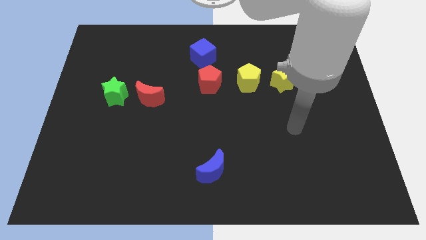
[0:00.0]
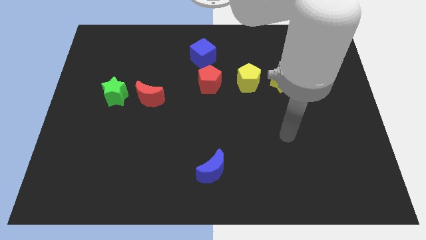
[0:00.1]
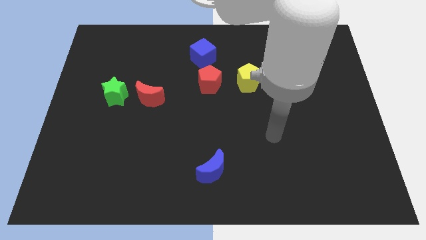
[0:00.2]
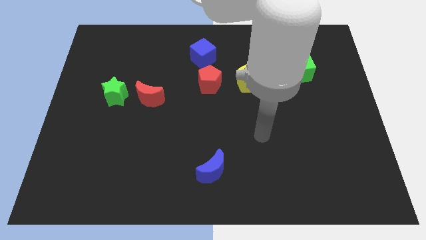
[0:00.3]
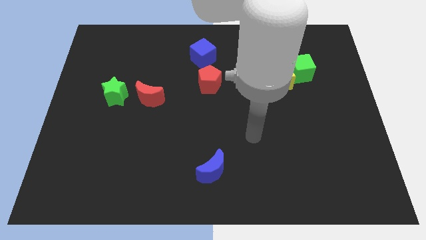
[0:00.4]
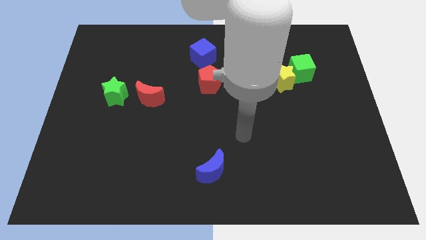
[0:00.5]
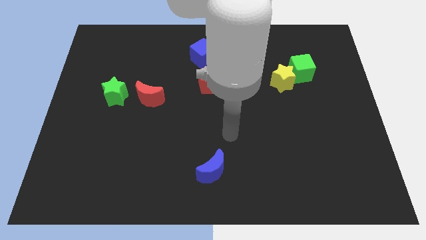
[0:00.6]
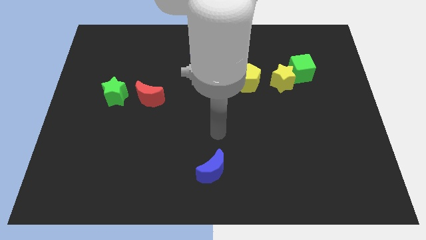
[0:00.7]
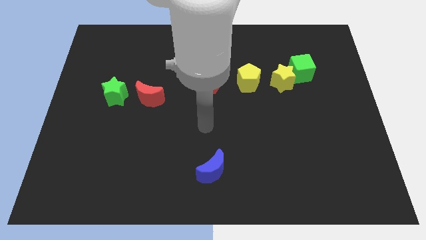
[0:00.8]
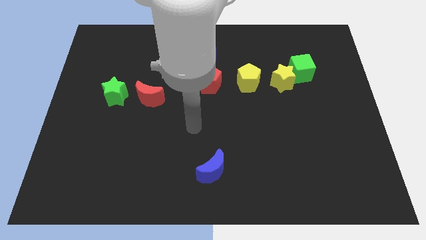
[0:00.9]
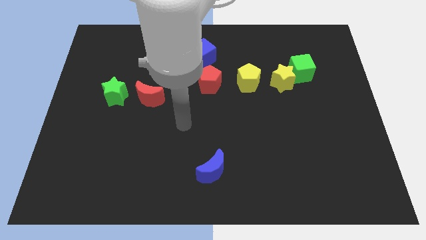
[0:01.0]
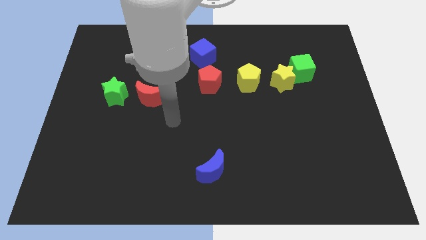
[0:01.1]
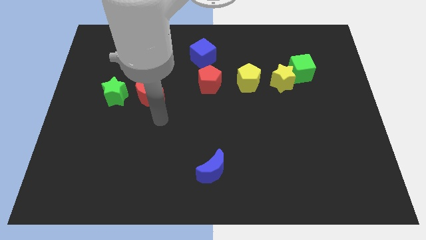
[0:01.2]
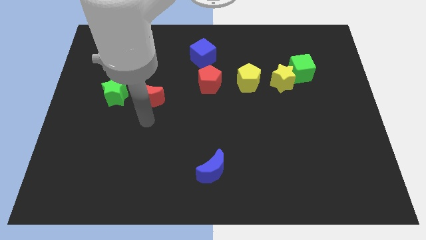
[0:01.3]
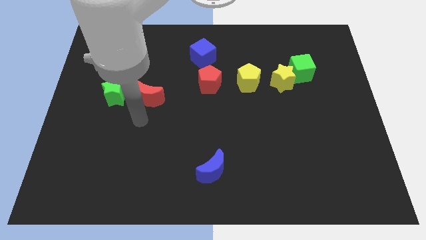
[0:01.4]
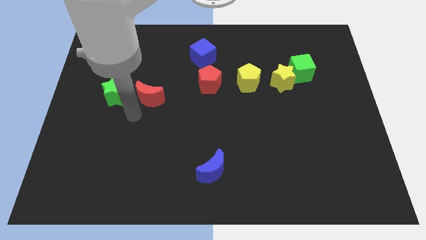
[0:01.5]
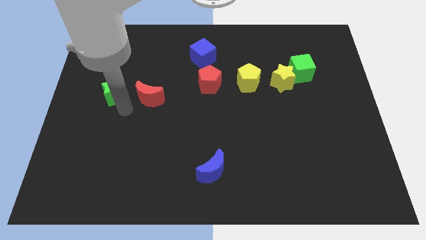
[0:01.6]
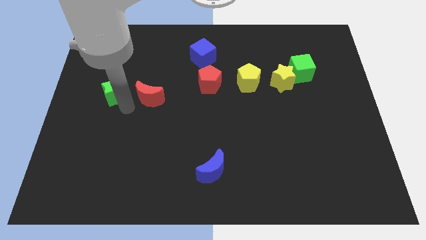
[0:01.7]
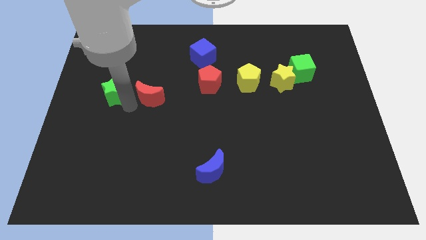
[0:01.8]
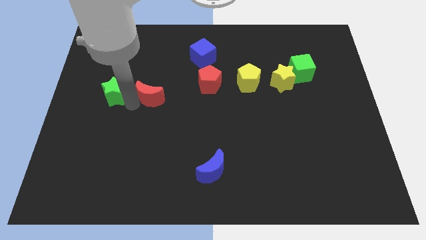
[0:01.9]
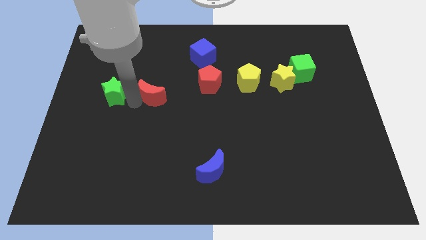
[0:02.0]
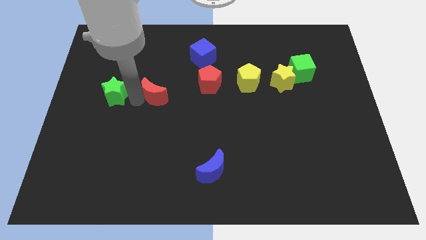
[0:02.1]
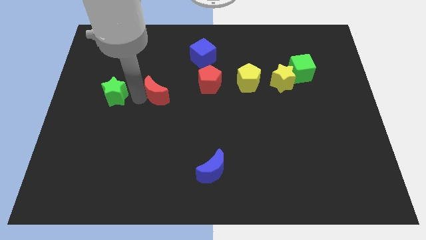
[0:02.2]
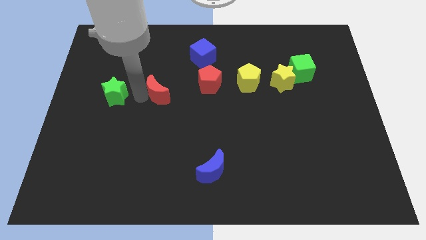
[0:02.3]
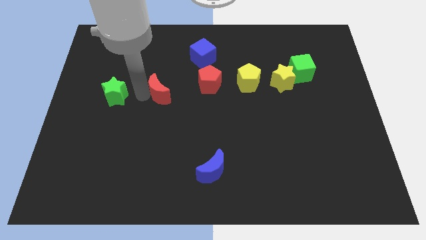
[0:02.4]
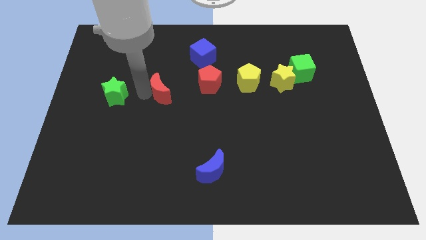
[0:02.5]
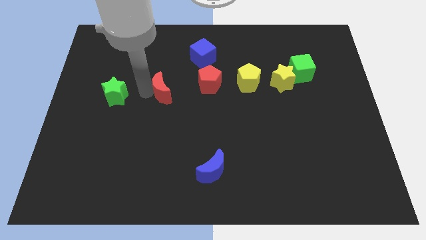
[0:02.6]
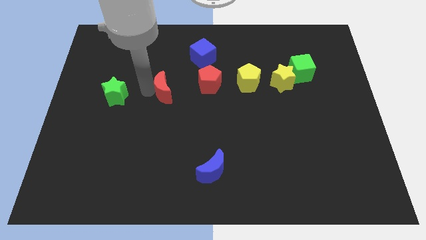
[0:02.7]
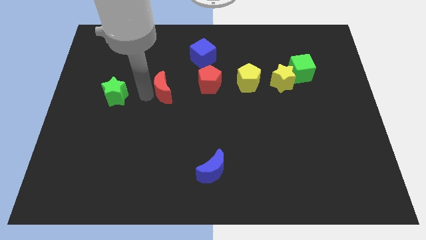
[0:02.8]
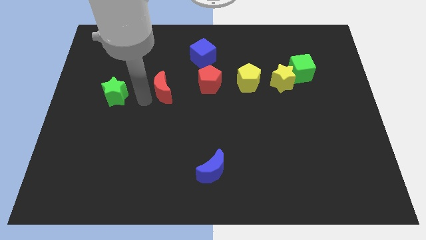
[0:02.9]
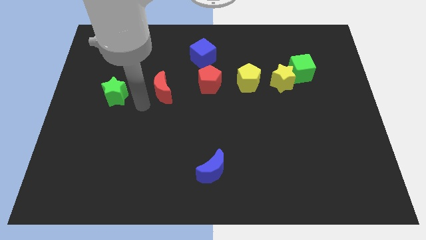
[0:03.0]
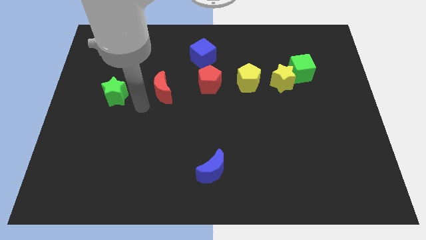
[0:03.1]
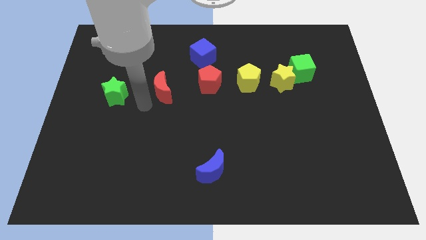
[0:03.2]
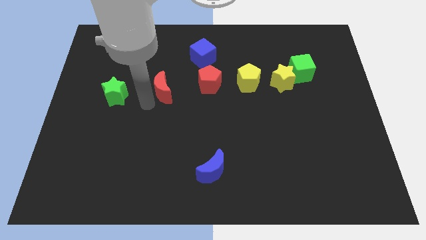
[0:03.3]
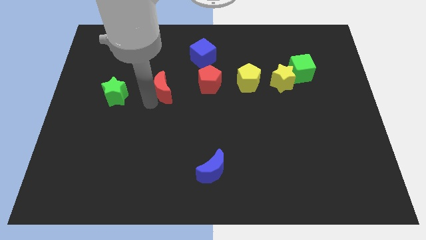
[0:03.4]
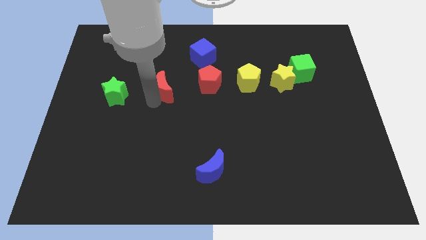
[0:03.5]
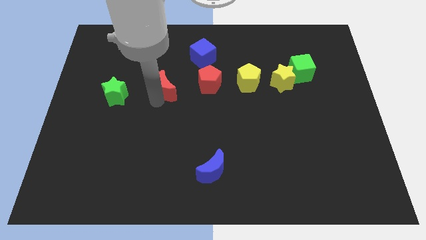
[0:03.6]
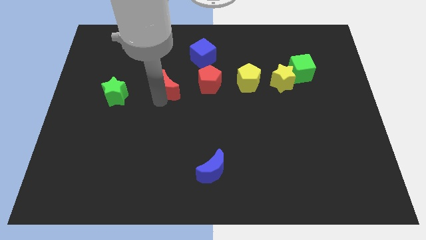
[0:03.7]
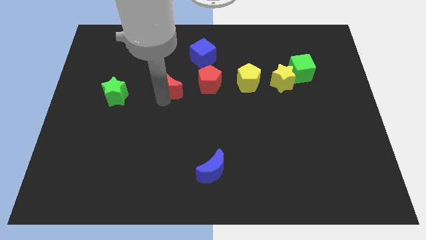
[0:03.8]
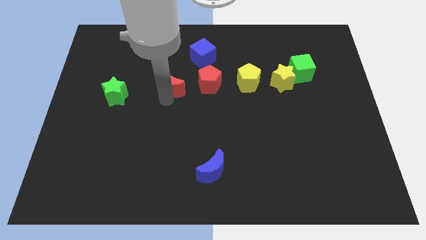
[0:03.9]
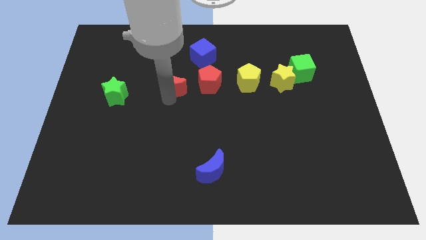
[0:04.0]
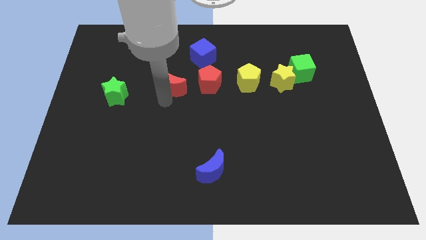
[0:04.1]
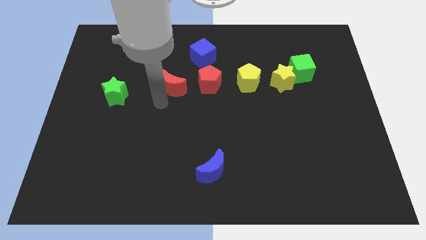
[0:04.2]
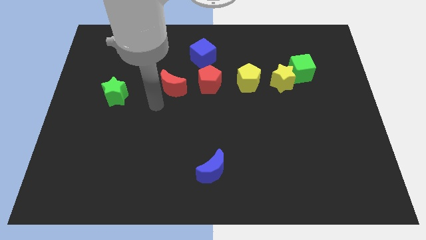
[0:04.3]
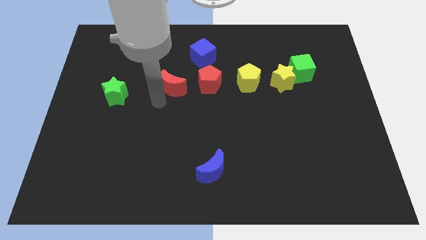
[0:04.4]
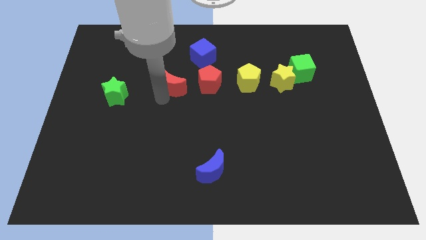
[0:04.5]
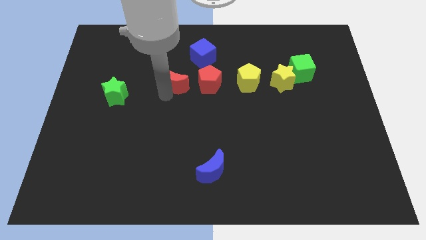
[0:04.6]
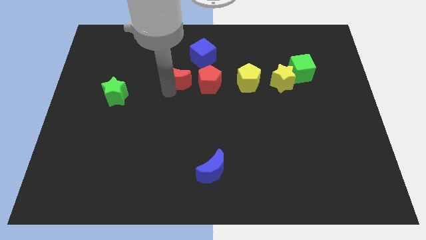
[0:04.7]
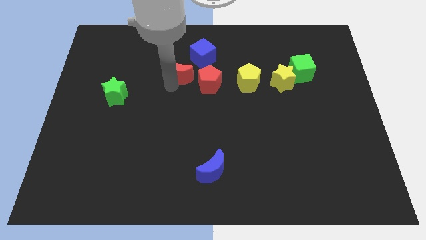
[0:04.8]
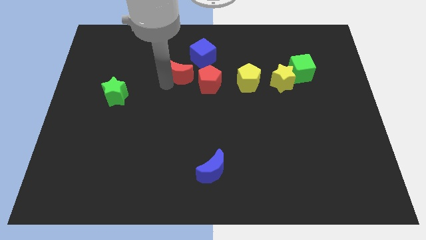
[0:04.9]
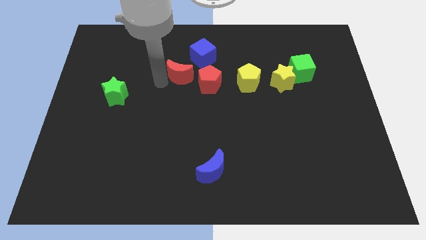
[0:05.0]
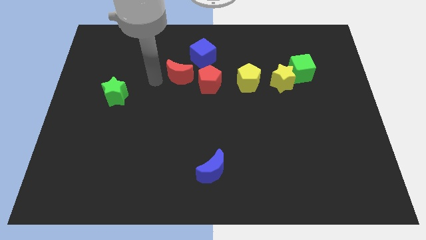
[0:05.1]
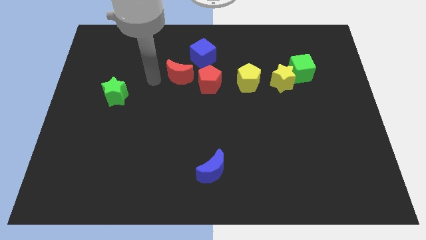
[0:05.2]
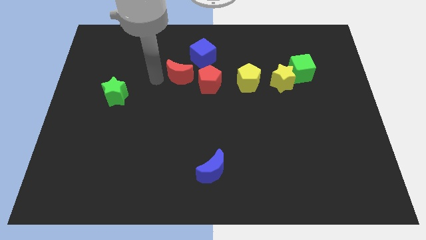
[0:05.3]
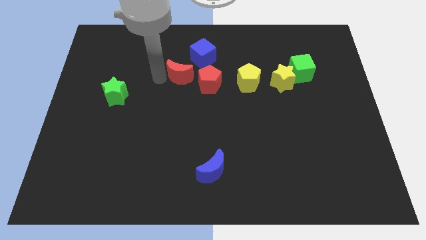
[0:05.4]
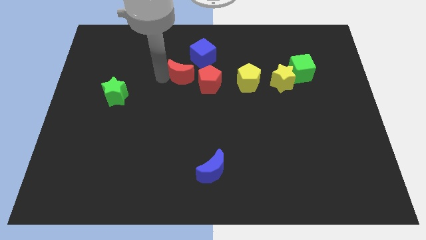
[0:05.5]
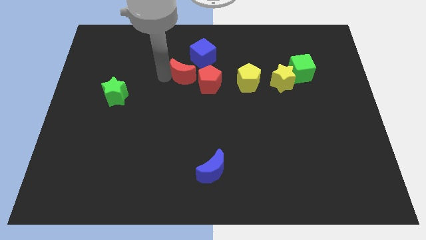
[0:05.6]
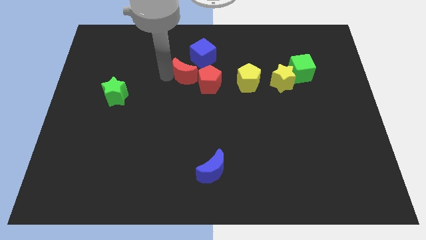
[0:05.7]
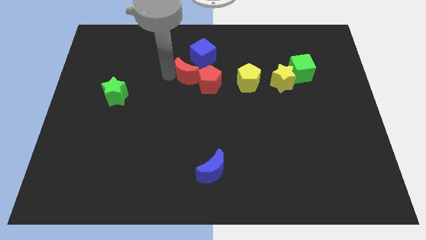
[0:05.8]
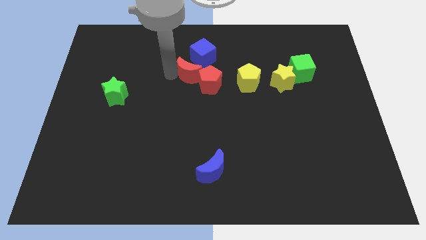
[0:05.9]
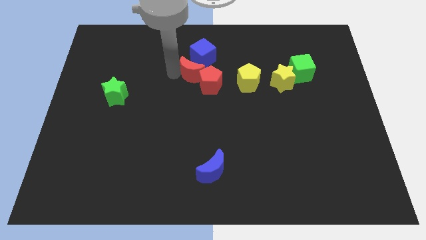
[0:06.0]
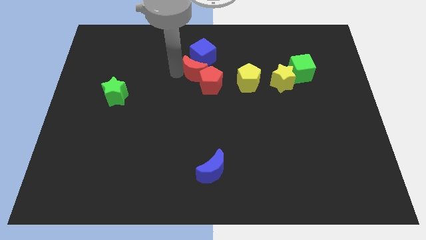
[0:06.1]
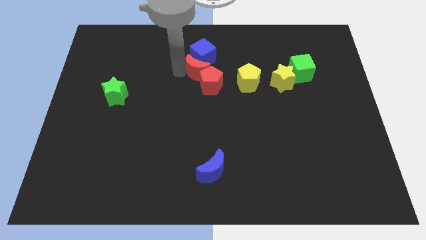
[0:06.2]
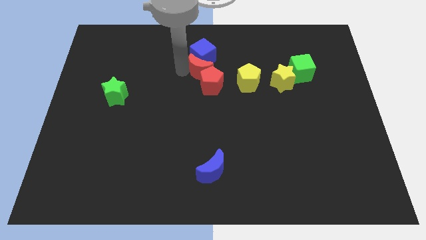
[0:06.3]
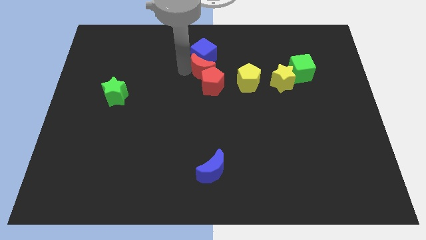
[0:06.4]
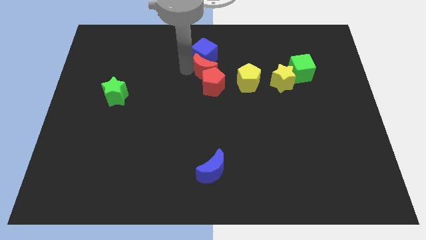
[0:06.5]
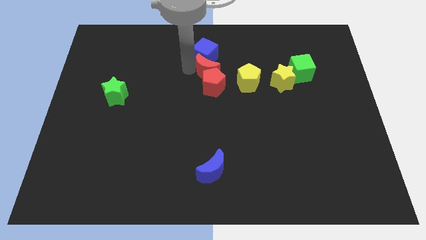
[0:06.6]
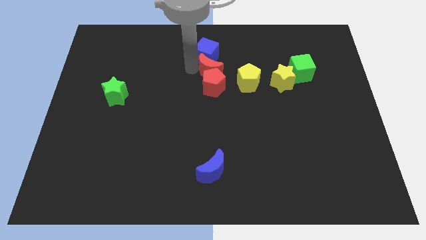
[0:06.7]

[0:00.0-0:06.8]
push the red moon to the top left side of the yellow pentagon
